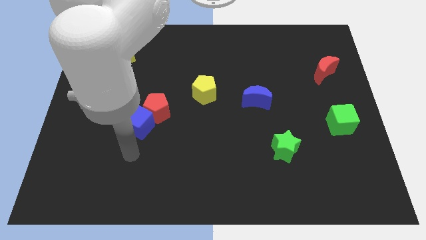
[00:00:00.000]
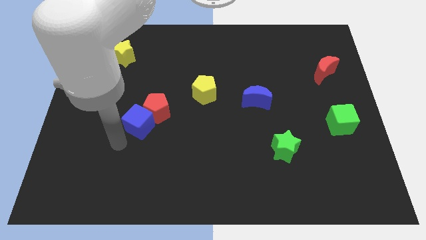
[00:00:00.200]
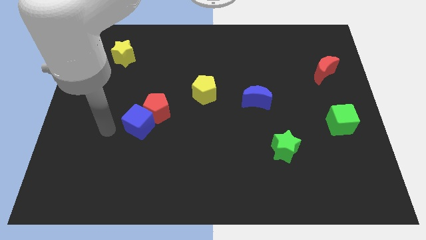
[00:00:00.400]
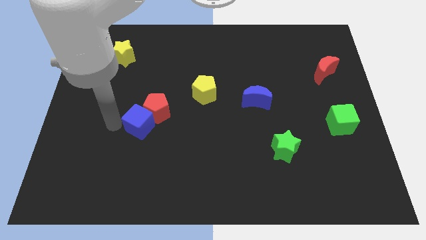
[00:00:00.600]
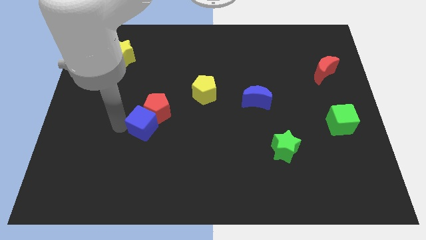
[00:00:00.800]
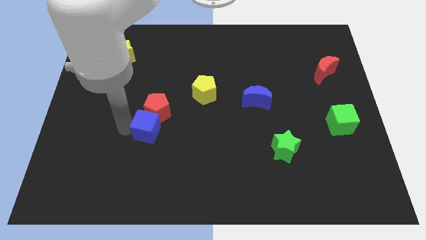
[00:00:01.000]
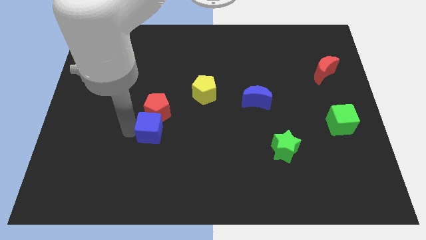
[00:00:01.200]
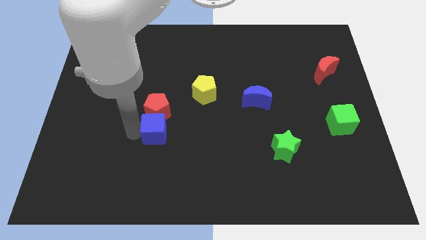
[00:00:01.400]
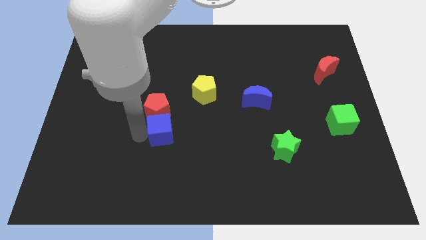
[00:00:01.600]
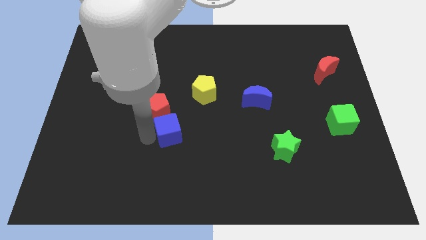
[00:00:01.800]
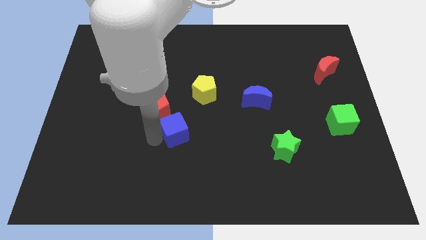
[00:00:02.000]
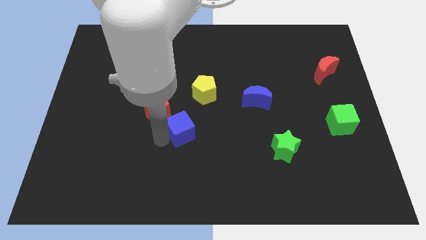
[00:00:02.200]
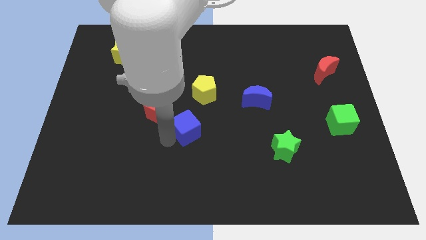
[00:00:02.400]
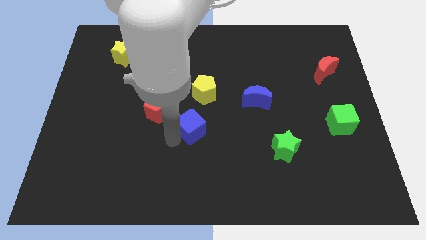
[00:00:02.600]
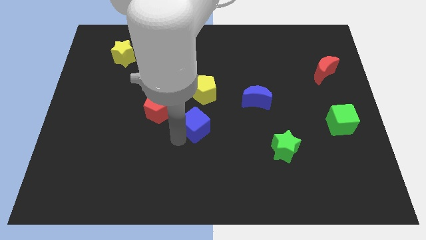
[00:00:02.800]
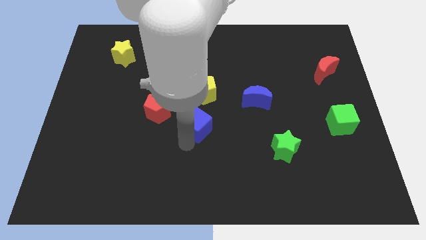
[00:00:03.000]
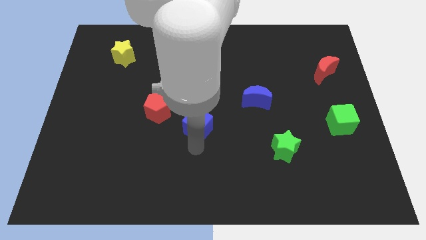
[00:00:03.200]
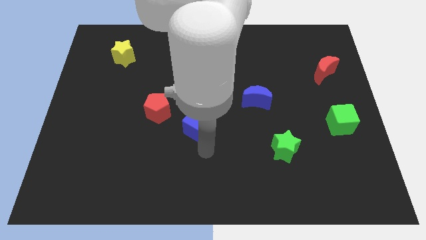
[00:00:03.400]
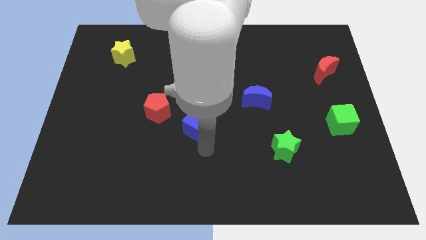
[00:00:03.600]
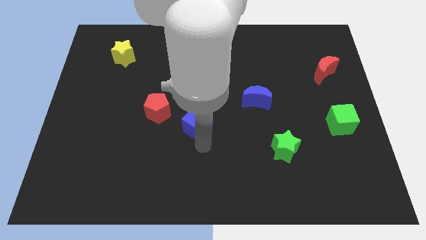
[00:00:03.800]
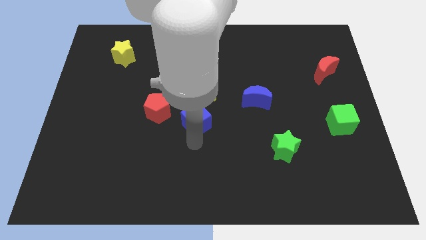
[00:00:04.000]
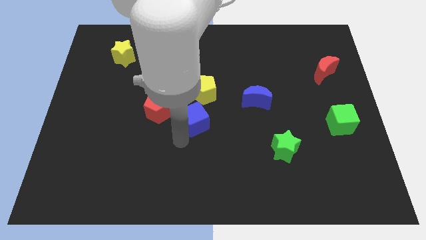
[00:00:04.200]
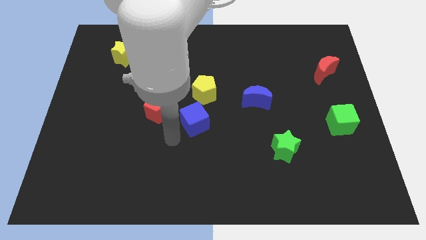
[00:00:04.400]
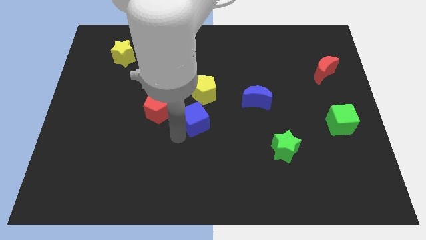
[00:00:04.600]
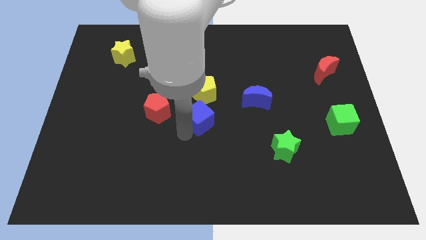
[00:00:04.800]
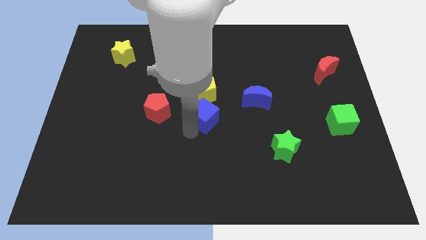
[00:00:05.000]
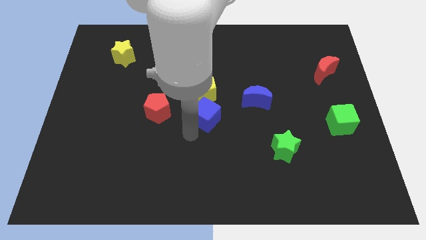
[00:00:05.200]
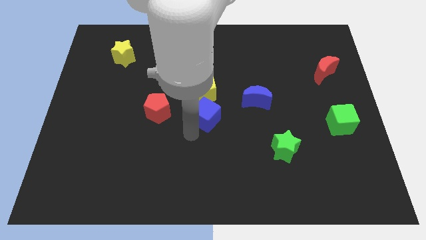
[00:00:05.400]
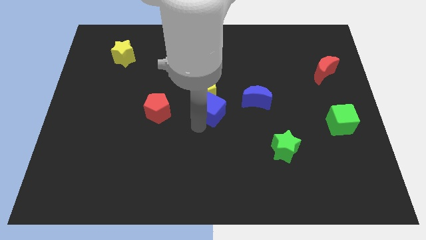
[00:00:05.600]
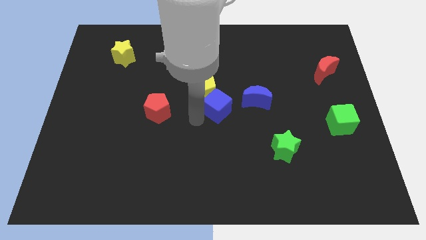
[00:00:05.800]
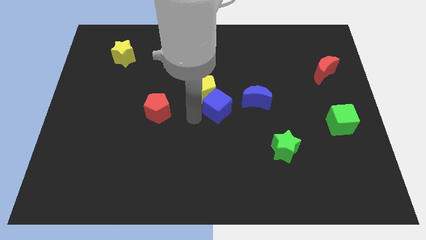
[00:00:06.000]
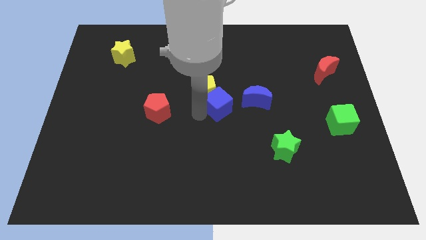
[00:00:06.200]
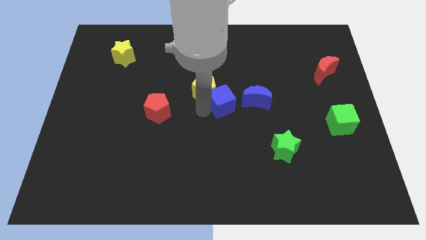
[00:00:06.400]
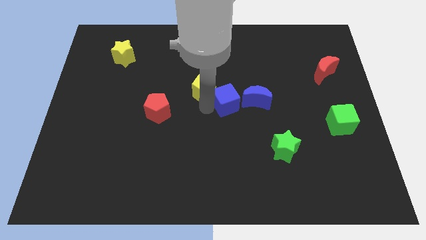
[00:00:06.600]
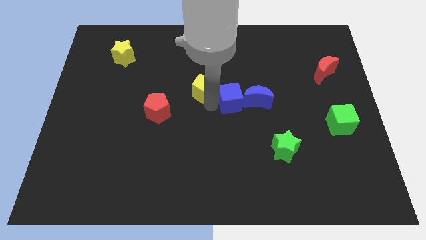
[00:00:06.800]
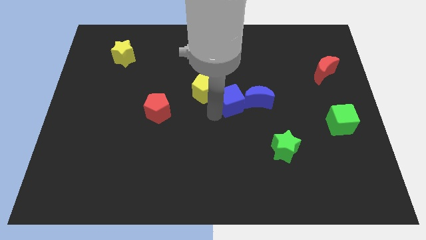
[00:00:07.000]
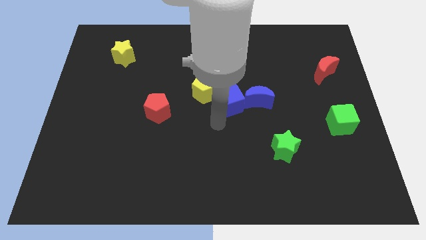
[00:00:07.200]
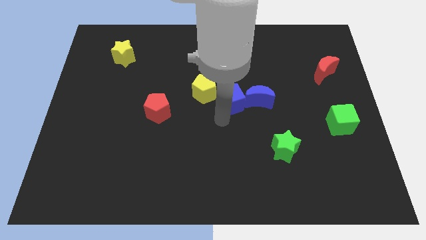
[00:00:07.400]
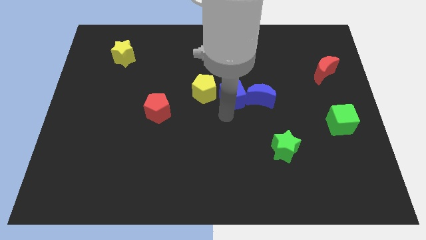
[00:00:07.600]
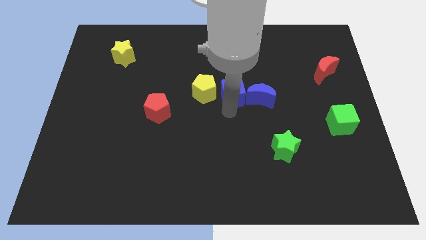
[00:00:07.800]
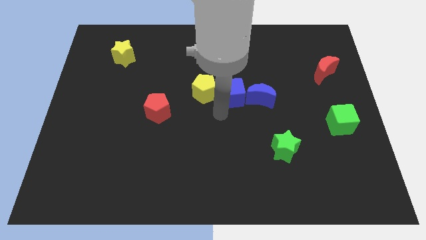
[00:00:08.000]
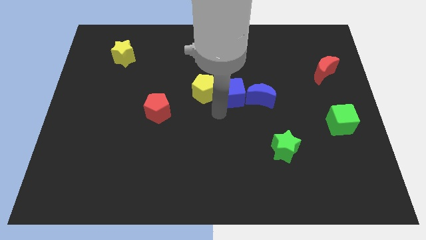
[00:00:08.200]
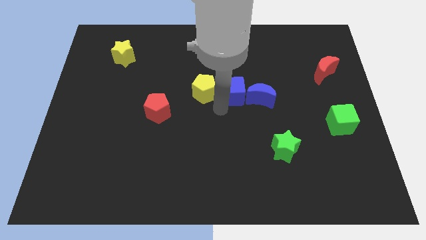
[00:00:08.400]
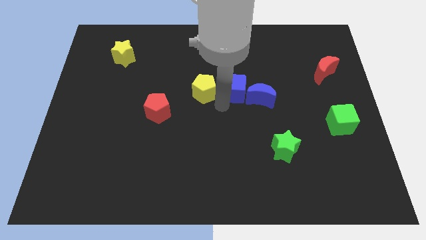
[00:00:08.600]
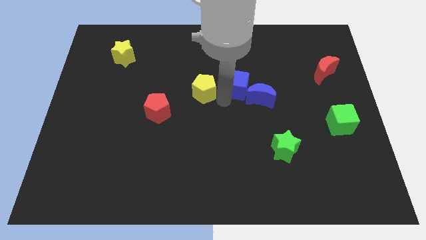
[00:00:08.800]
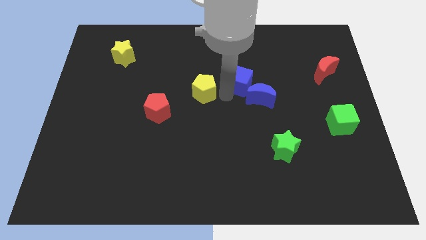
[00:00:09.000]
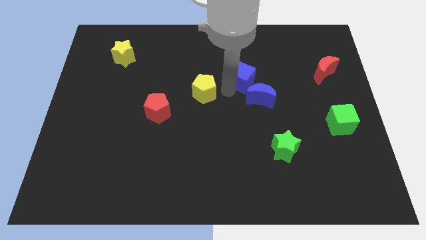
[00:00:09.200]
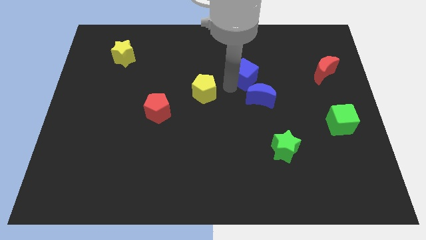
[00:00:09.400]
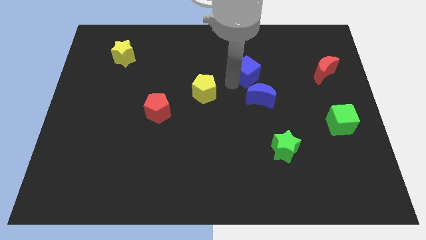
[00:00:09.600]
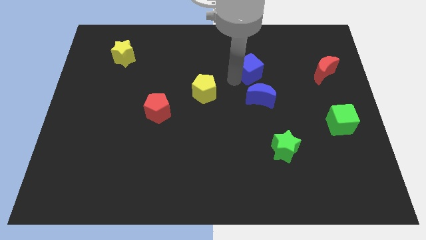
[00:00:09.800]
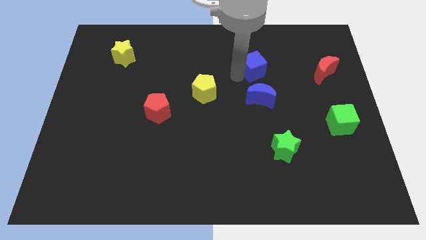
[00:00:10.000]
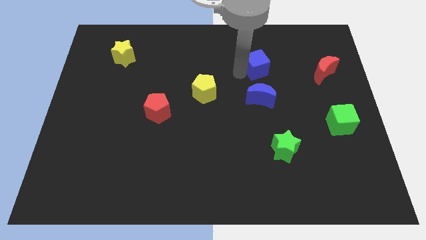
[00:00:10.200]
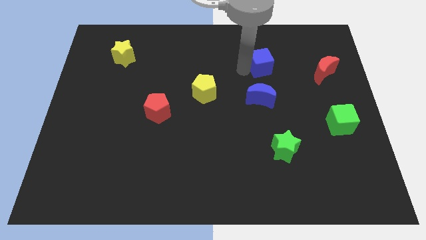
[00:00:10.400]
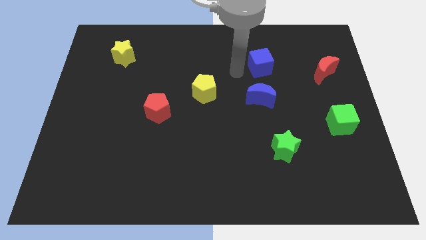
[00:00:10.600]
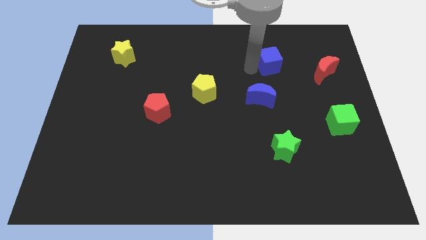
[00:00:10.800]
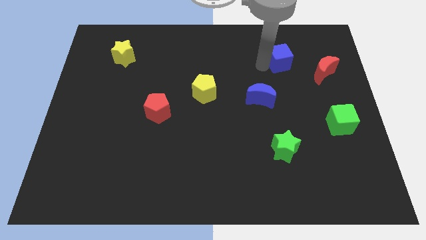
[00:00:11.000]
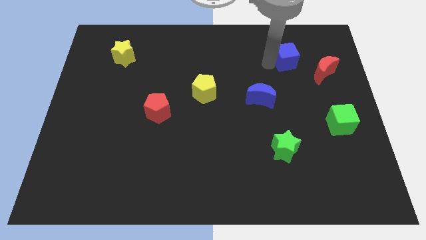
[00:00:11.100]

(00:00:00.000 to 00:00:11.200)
move the blue cube diagonally up and to the left of the red moon

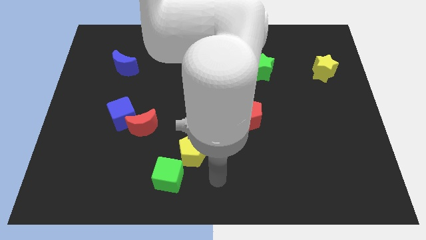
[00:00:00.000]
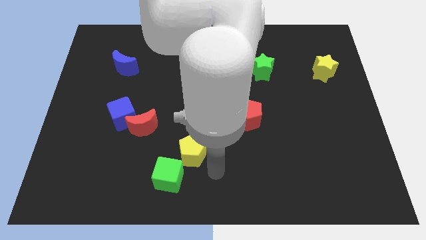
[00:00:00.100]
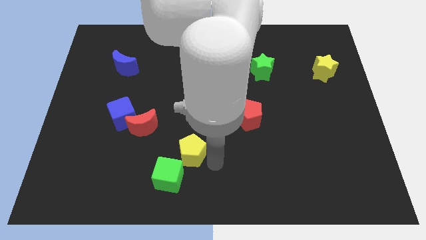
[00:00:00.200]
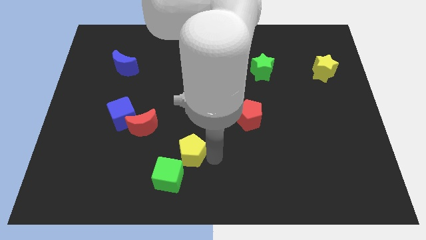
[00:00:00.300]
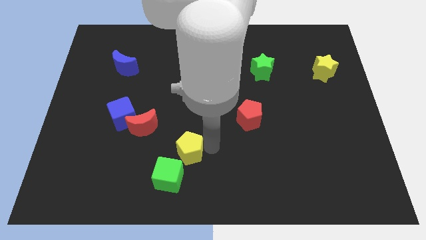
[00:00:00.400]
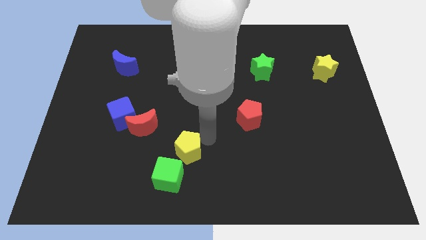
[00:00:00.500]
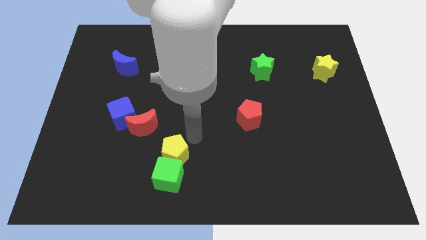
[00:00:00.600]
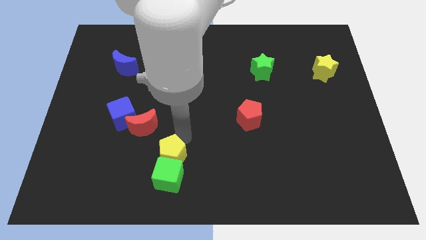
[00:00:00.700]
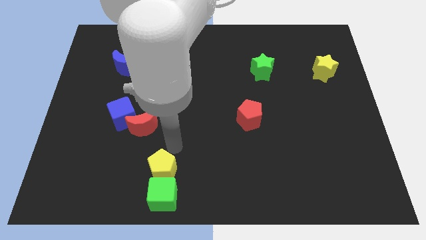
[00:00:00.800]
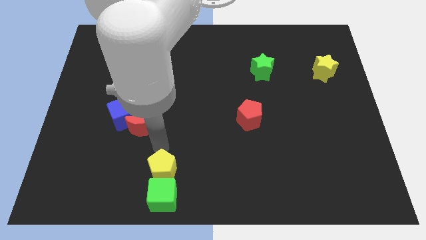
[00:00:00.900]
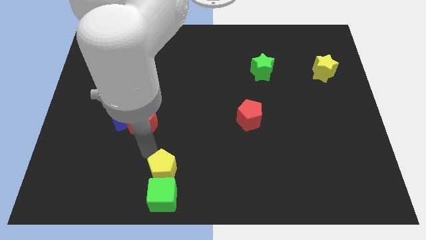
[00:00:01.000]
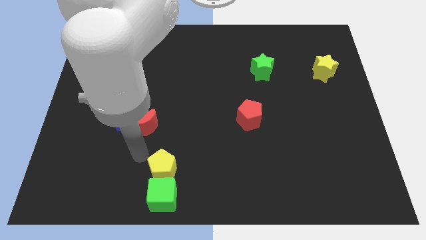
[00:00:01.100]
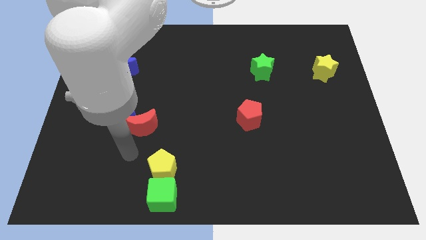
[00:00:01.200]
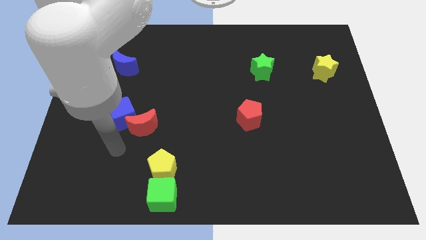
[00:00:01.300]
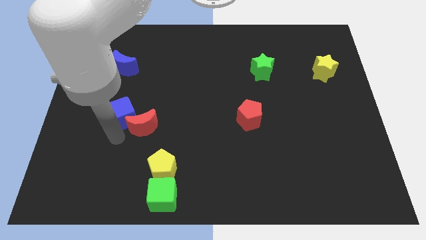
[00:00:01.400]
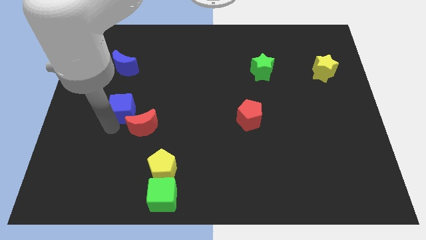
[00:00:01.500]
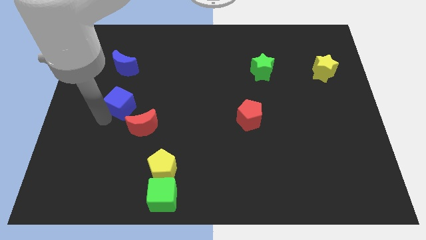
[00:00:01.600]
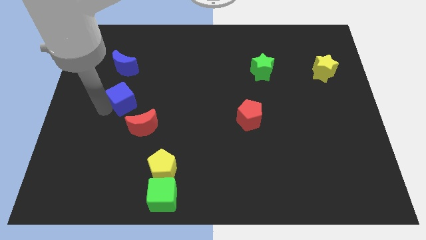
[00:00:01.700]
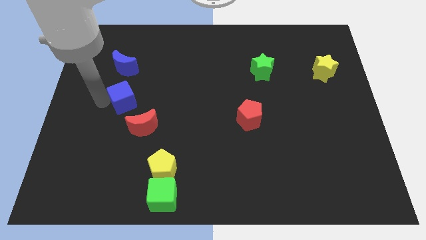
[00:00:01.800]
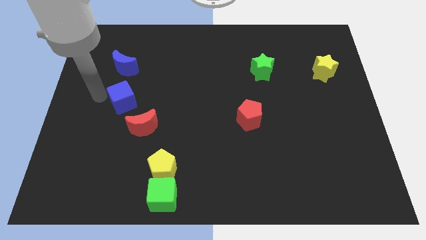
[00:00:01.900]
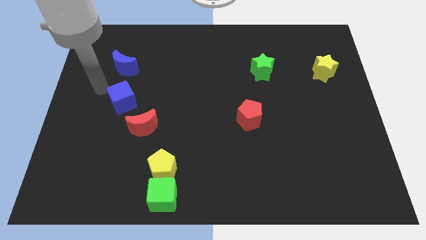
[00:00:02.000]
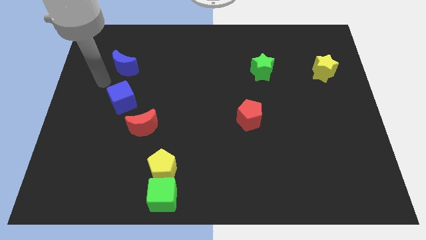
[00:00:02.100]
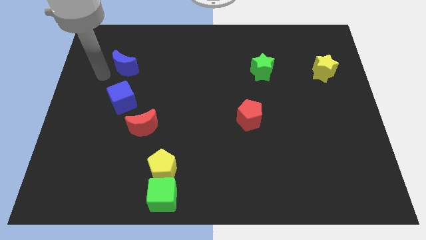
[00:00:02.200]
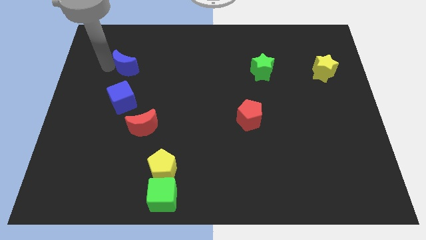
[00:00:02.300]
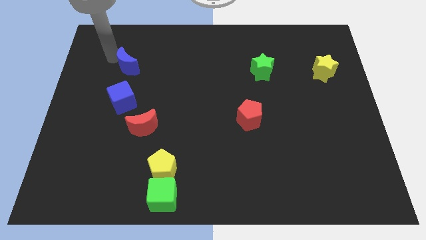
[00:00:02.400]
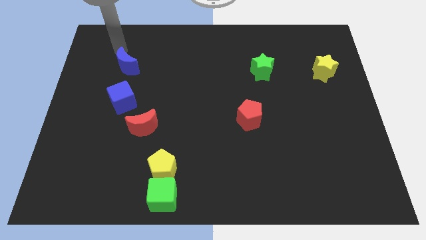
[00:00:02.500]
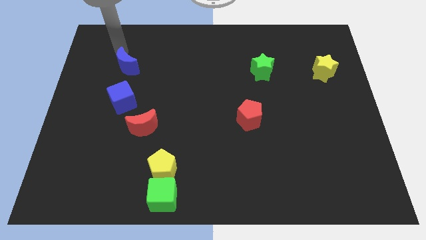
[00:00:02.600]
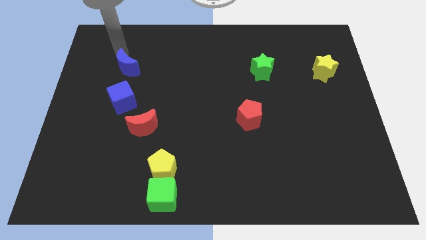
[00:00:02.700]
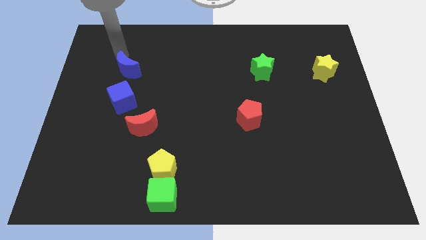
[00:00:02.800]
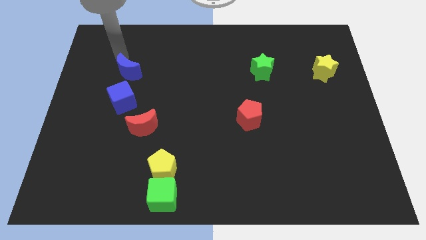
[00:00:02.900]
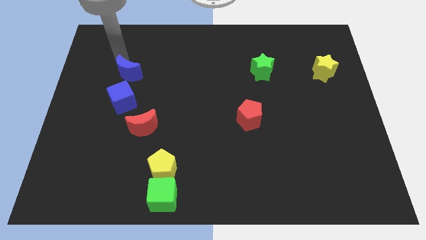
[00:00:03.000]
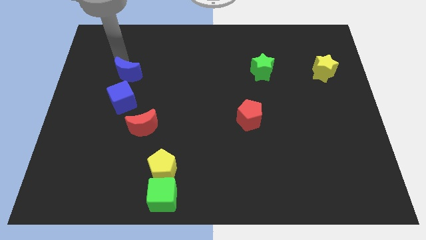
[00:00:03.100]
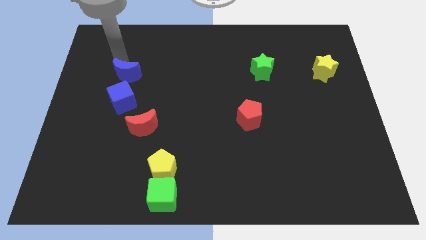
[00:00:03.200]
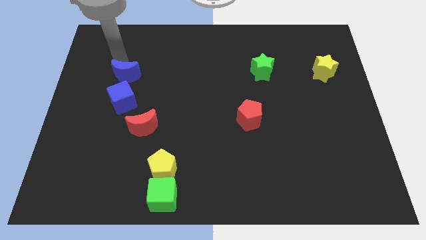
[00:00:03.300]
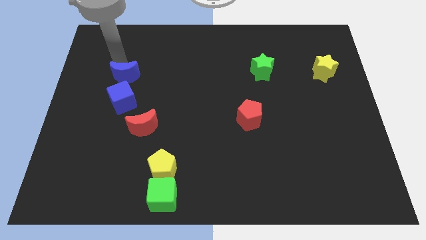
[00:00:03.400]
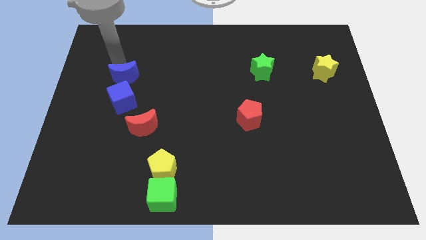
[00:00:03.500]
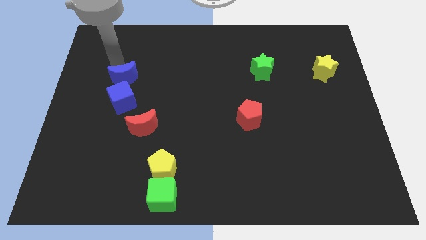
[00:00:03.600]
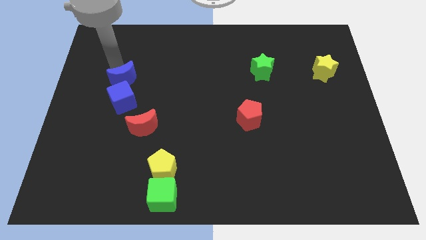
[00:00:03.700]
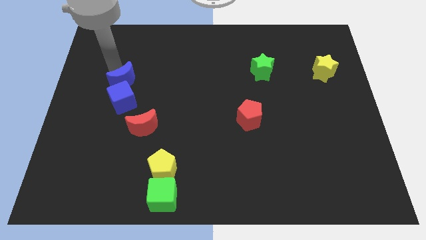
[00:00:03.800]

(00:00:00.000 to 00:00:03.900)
slide the blue moon diagonally up and to the right of the blue cube
